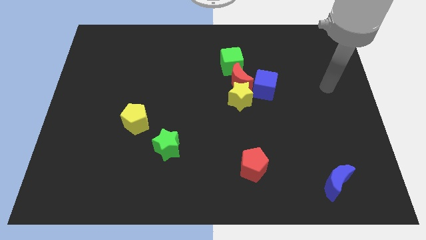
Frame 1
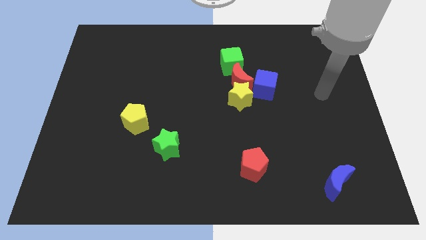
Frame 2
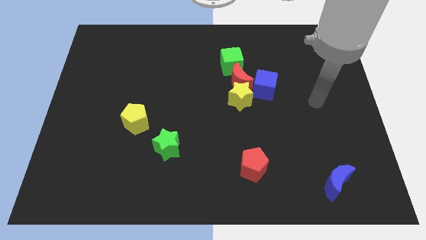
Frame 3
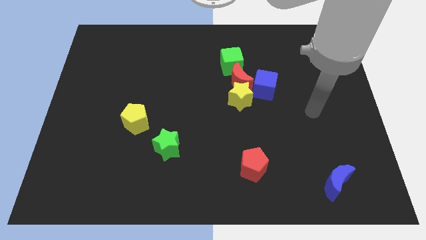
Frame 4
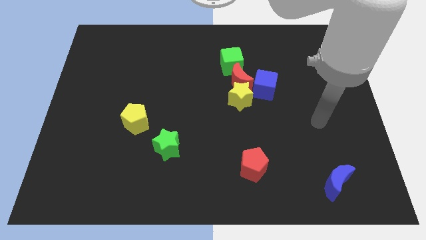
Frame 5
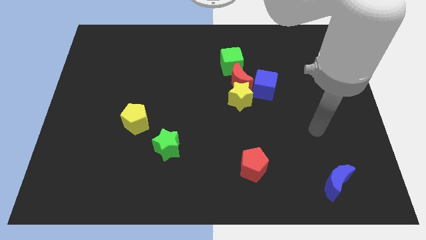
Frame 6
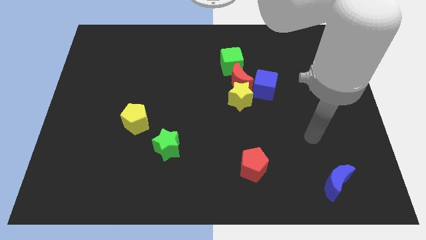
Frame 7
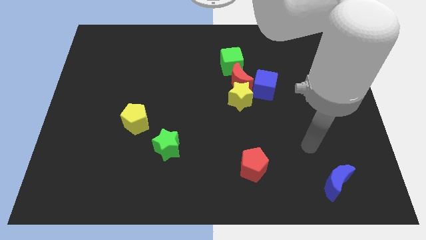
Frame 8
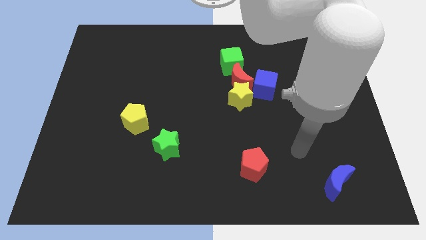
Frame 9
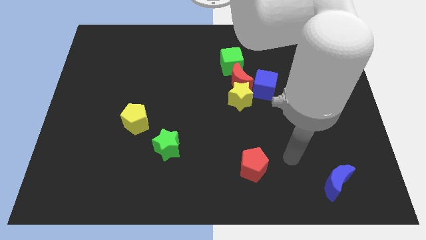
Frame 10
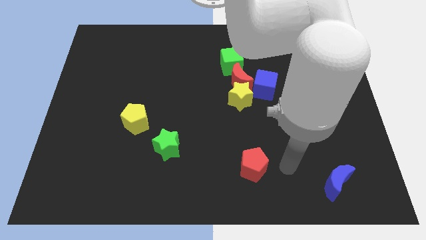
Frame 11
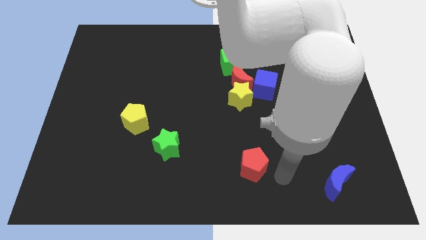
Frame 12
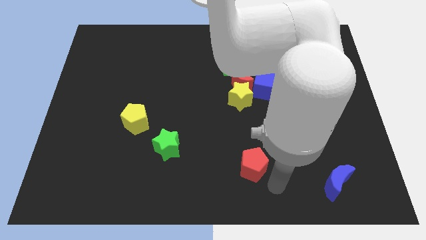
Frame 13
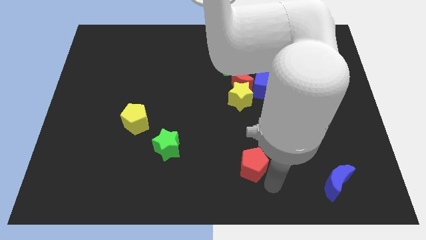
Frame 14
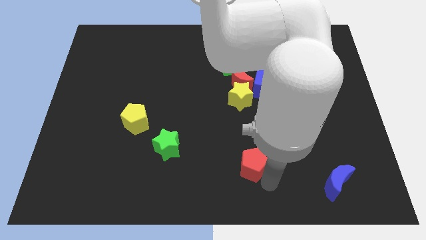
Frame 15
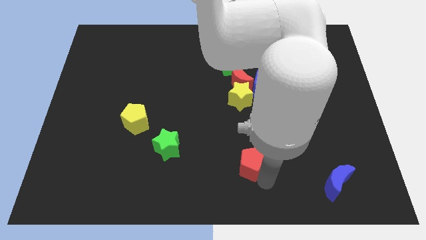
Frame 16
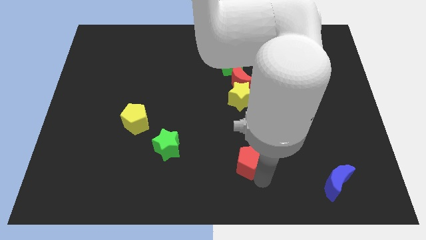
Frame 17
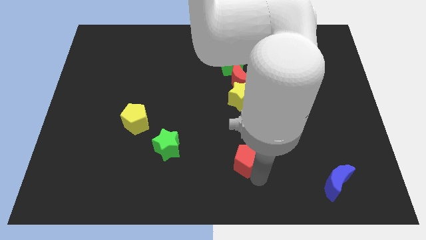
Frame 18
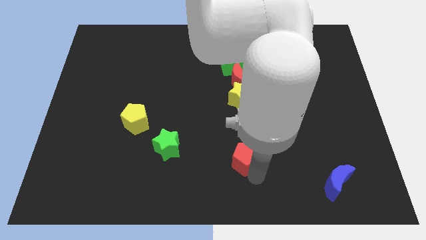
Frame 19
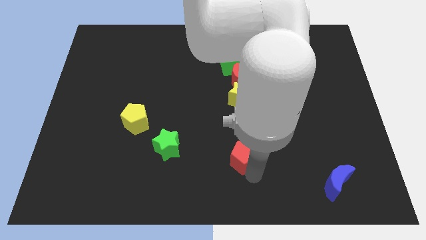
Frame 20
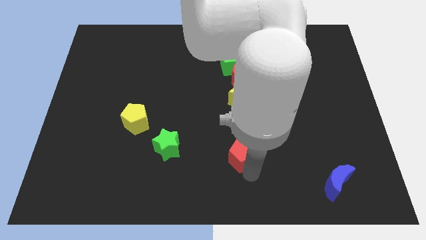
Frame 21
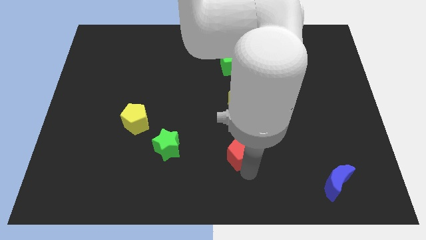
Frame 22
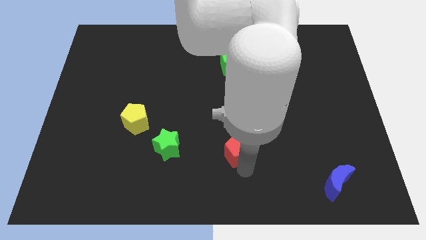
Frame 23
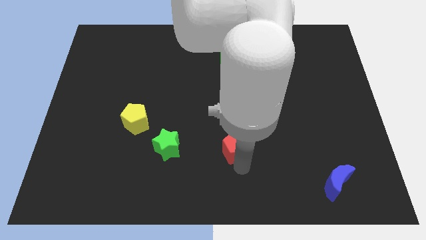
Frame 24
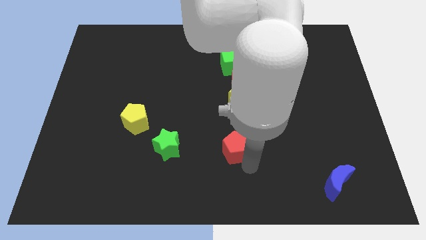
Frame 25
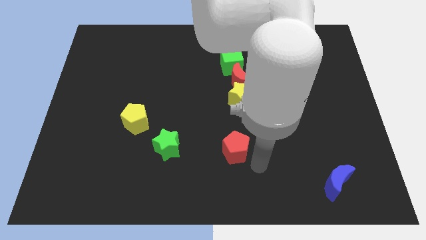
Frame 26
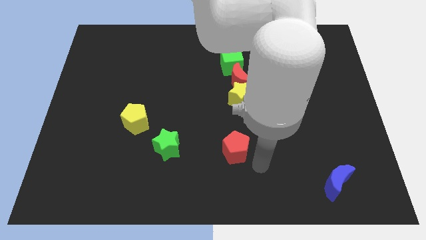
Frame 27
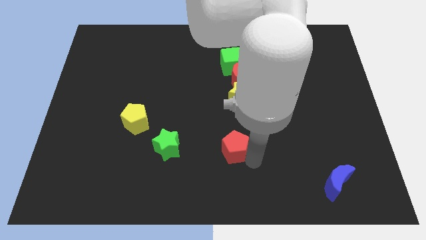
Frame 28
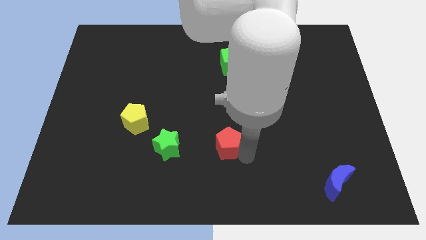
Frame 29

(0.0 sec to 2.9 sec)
push the red pentagon upwards and to the left diagonally a little

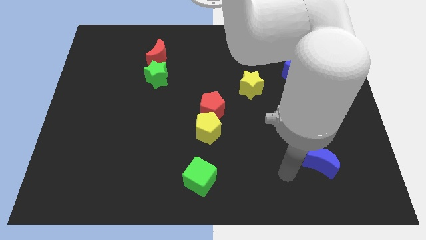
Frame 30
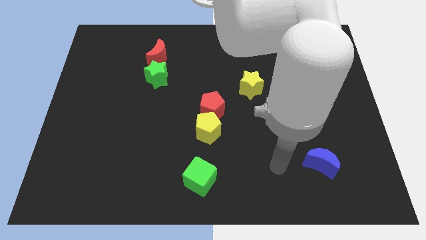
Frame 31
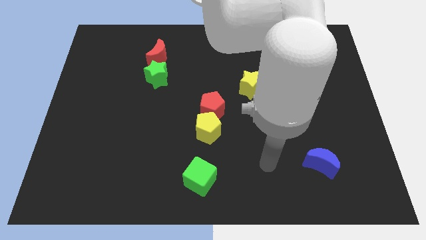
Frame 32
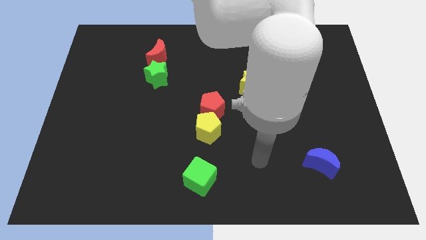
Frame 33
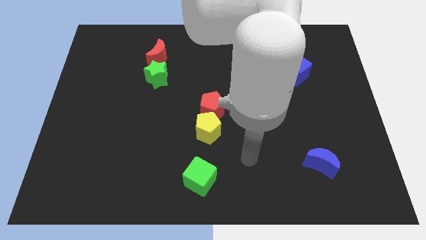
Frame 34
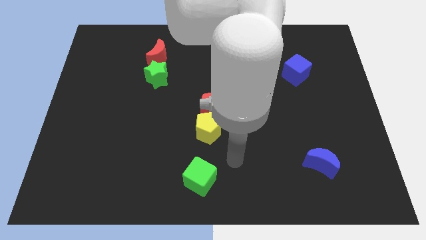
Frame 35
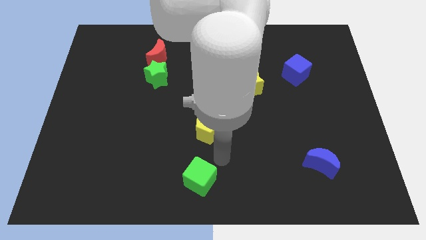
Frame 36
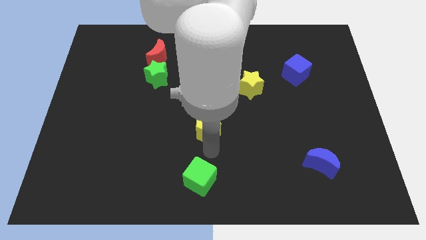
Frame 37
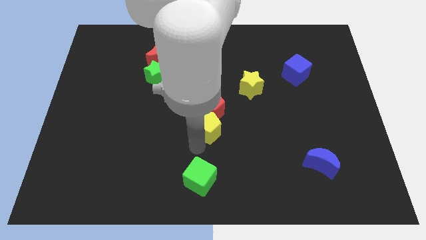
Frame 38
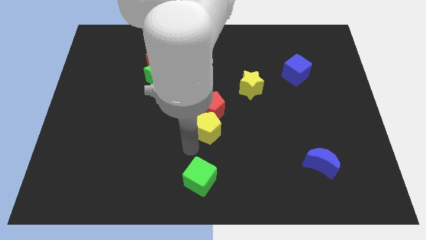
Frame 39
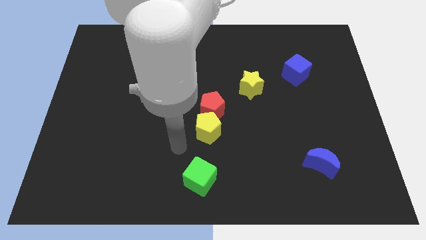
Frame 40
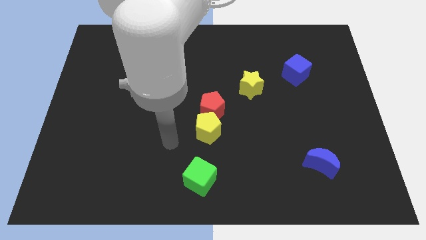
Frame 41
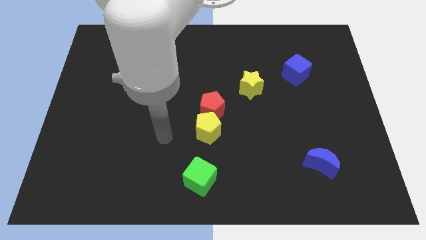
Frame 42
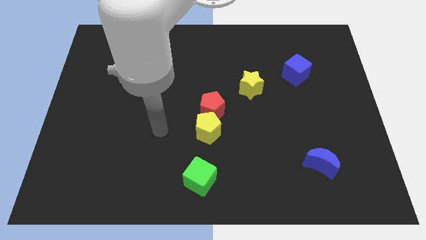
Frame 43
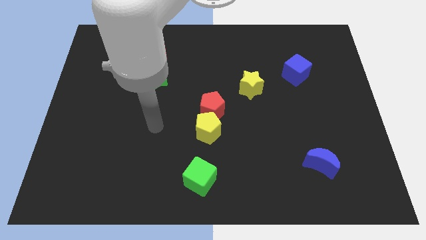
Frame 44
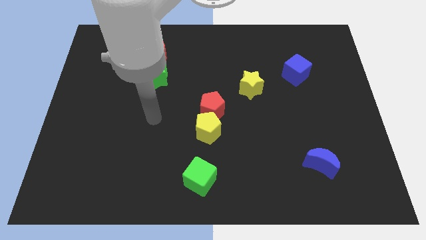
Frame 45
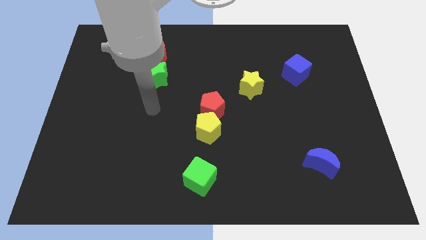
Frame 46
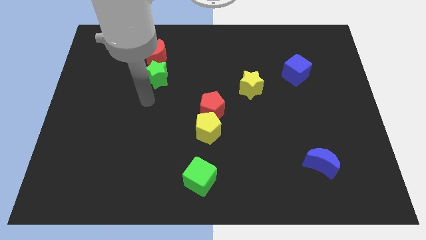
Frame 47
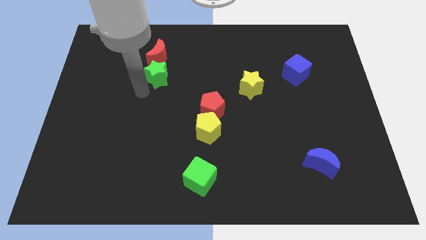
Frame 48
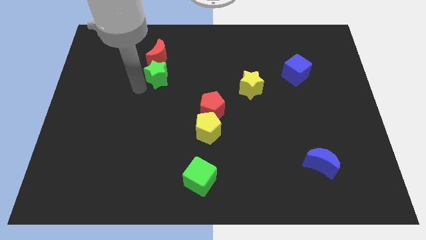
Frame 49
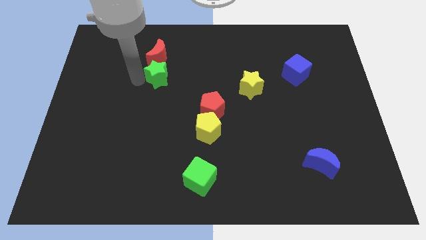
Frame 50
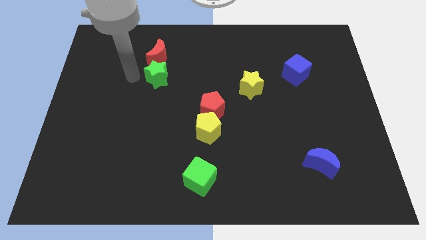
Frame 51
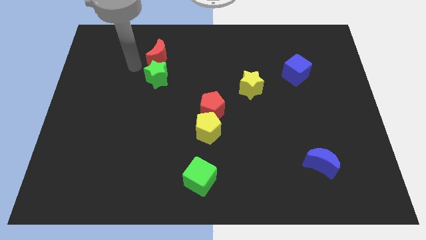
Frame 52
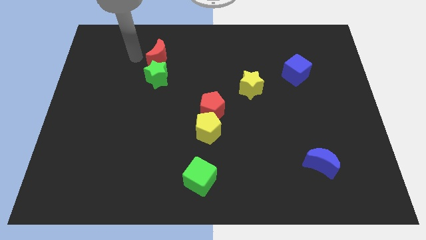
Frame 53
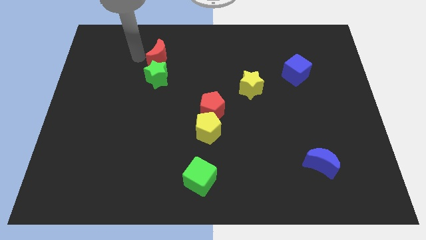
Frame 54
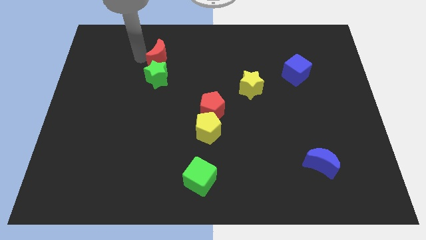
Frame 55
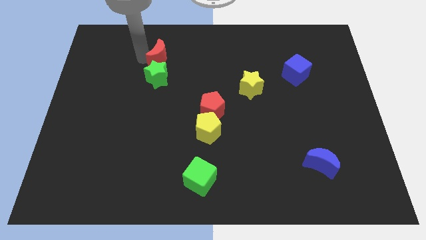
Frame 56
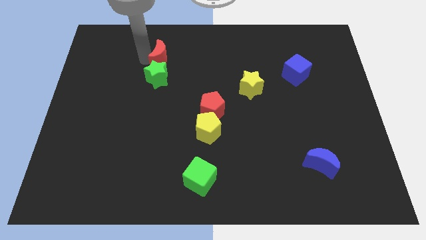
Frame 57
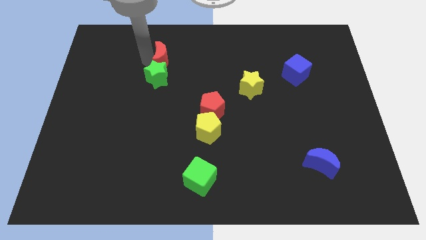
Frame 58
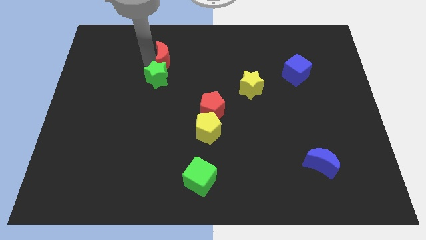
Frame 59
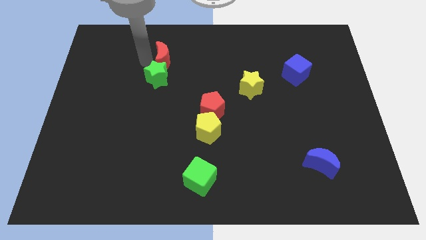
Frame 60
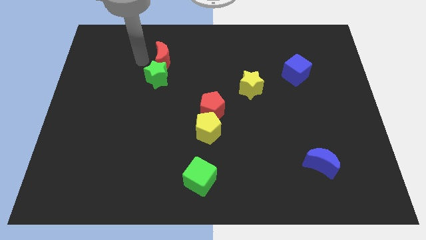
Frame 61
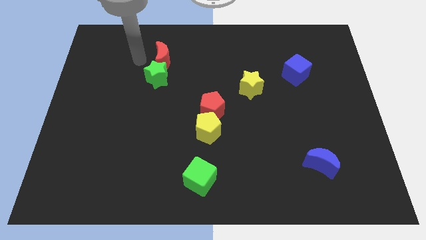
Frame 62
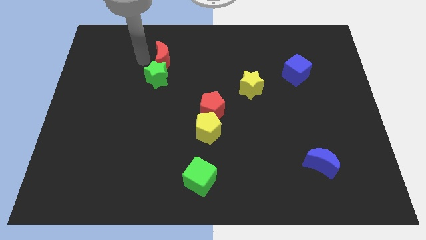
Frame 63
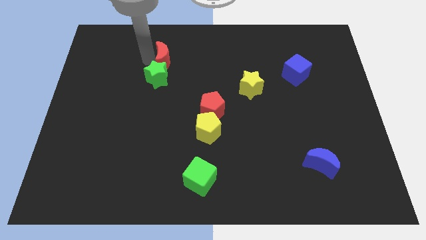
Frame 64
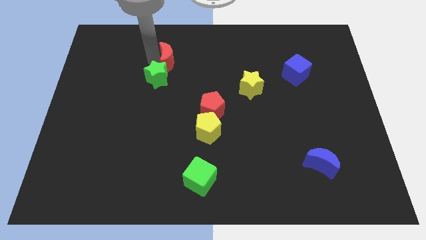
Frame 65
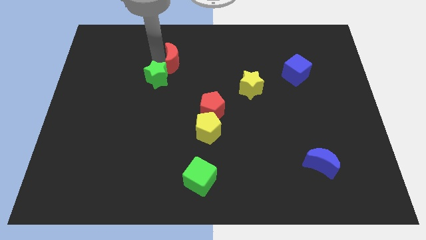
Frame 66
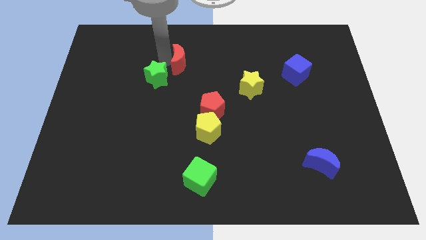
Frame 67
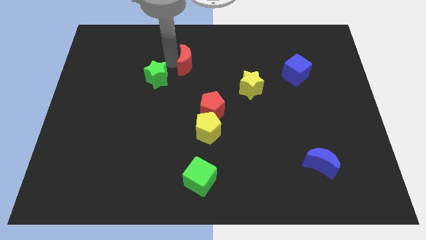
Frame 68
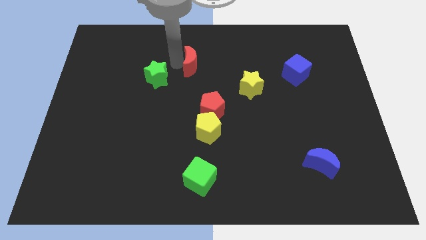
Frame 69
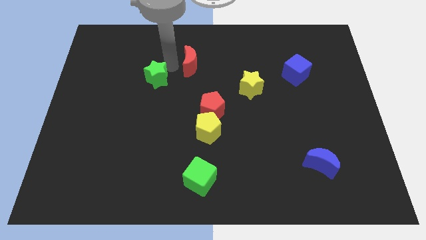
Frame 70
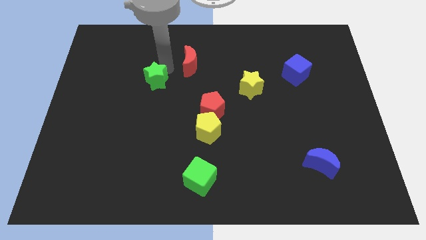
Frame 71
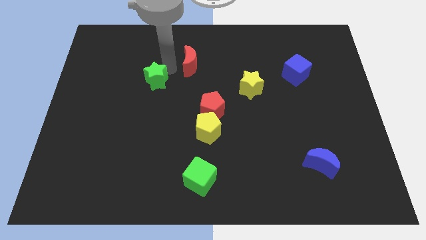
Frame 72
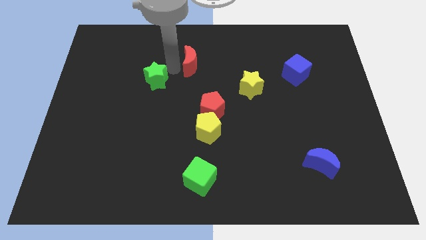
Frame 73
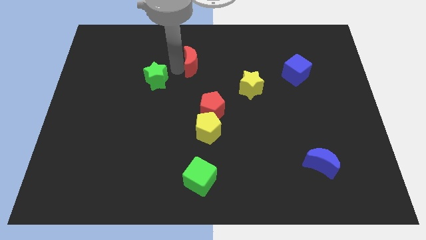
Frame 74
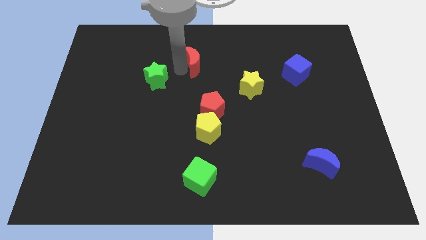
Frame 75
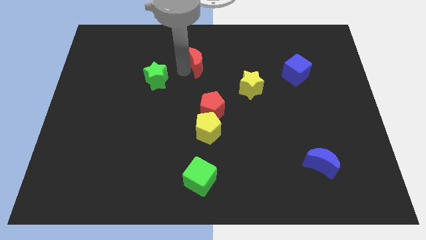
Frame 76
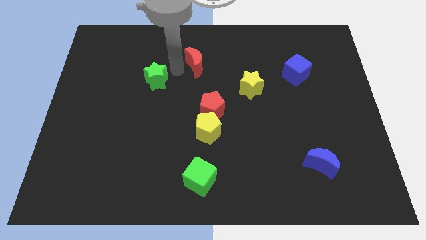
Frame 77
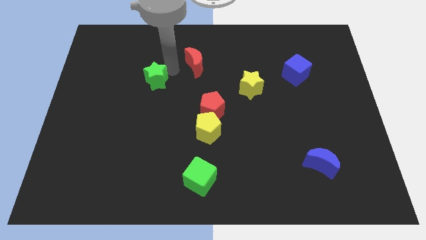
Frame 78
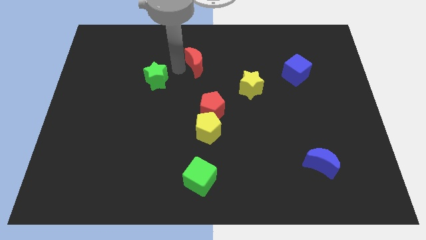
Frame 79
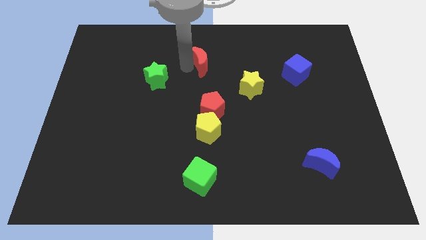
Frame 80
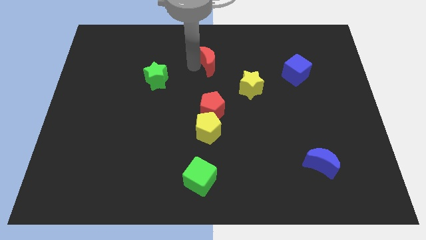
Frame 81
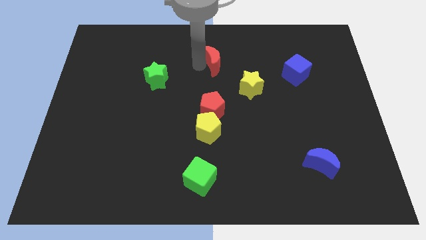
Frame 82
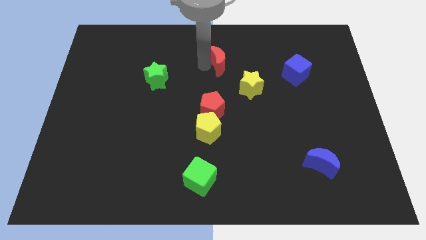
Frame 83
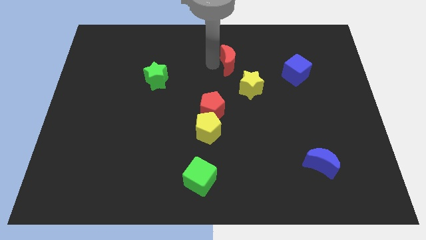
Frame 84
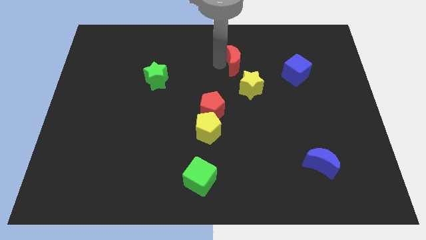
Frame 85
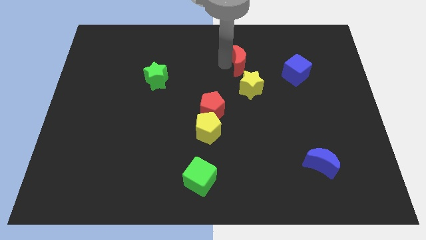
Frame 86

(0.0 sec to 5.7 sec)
push the red moon right

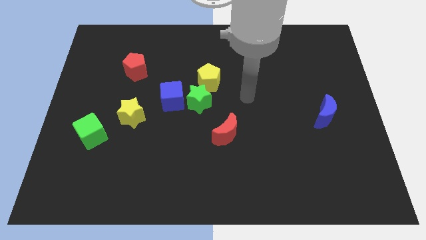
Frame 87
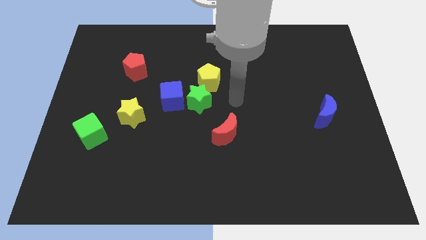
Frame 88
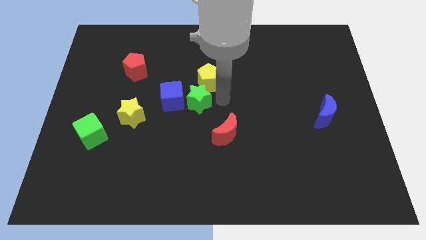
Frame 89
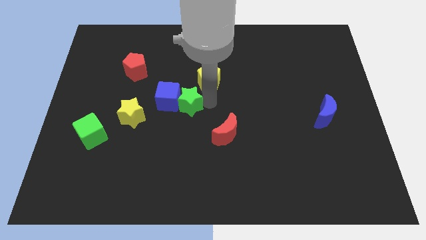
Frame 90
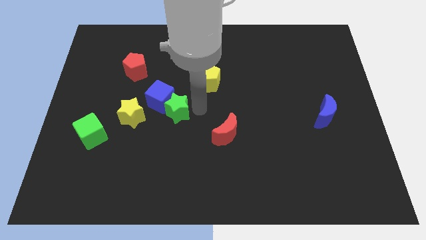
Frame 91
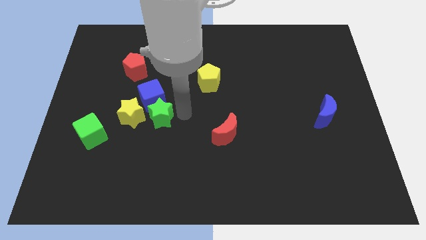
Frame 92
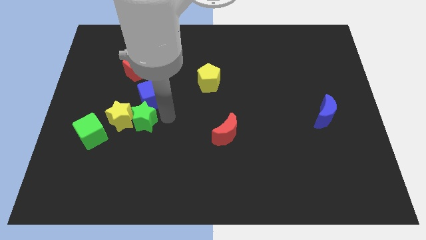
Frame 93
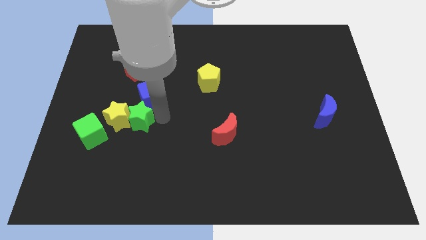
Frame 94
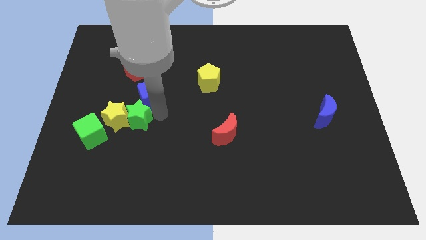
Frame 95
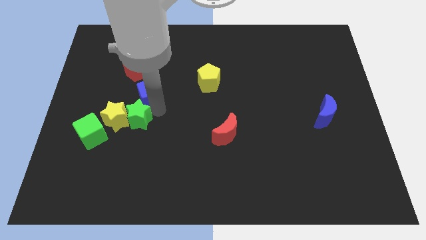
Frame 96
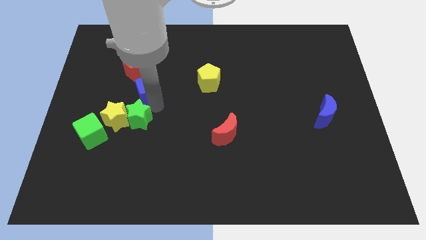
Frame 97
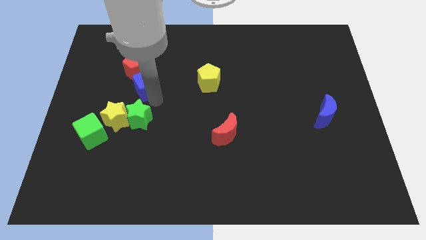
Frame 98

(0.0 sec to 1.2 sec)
slightly slide the blue cube up and left
